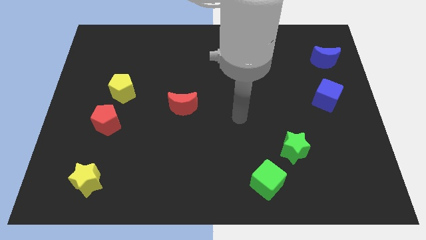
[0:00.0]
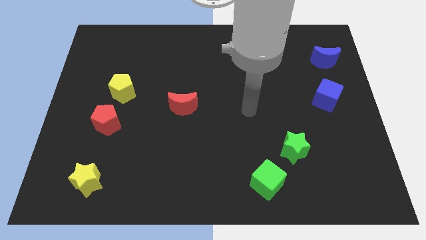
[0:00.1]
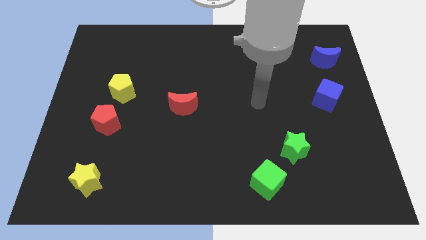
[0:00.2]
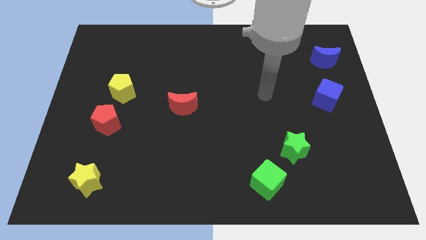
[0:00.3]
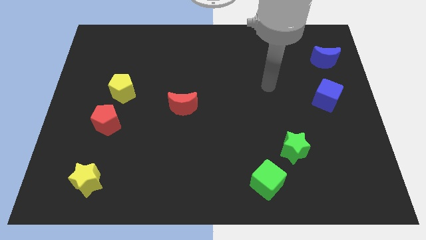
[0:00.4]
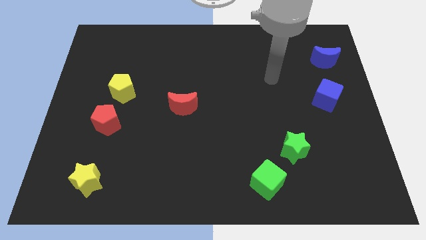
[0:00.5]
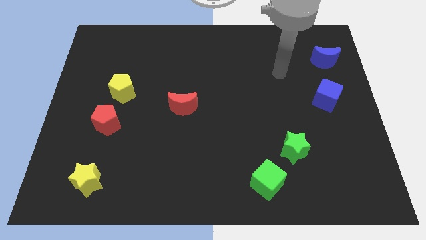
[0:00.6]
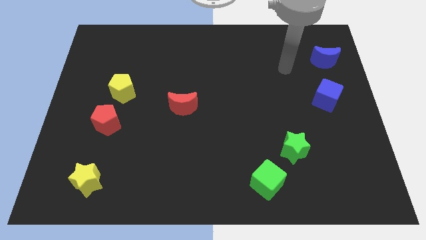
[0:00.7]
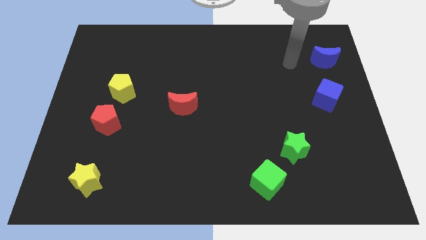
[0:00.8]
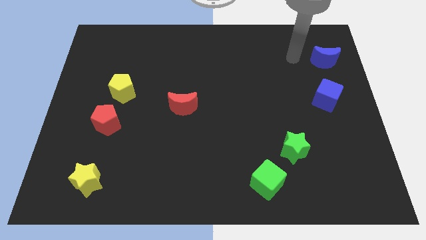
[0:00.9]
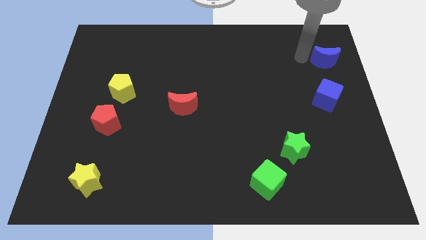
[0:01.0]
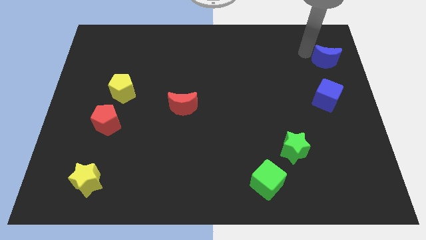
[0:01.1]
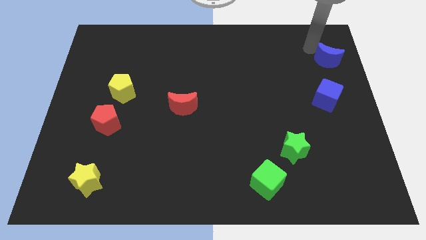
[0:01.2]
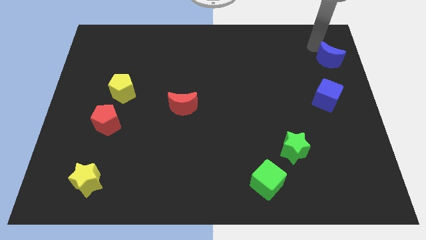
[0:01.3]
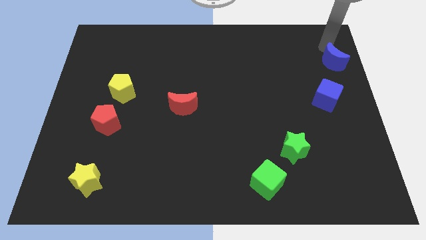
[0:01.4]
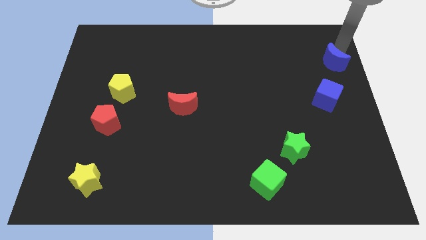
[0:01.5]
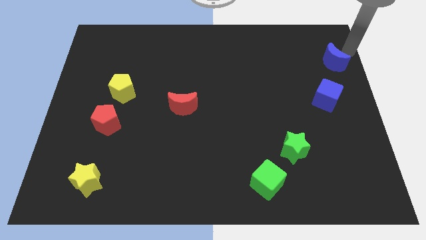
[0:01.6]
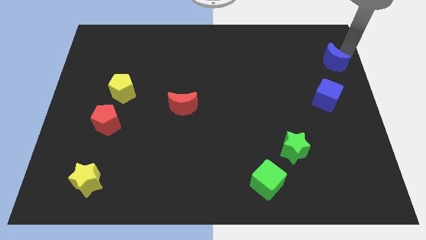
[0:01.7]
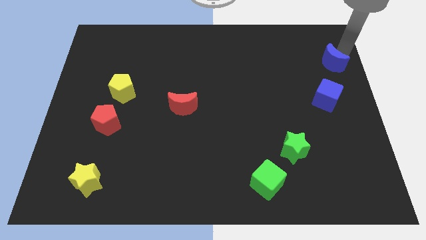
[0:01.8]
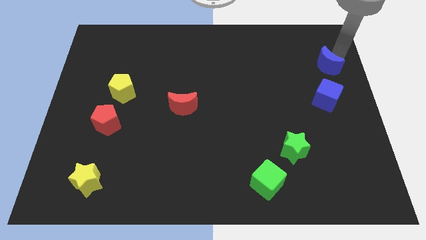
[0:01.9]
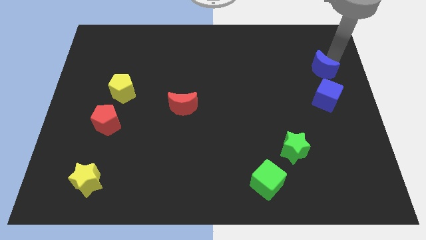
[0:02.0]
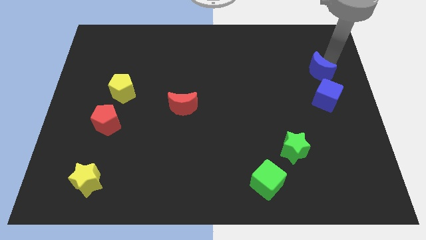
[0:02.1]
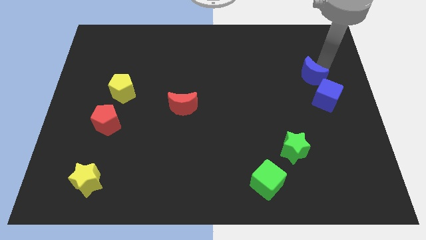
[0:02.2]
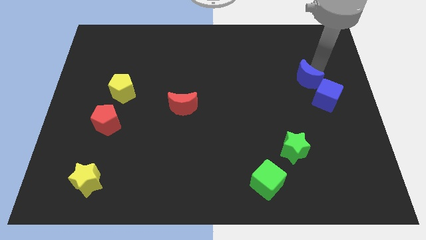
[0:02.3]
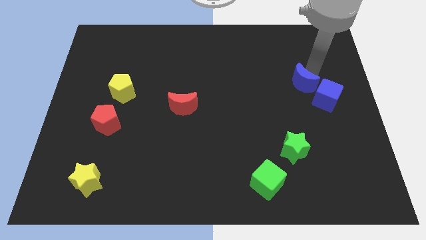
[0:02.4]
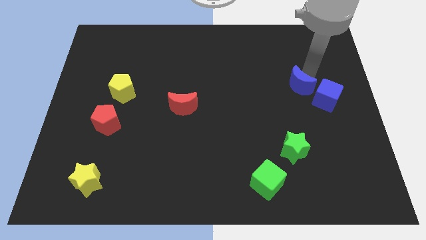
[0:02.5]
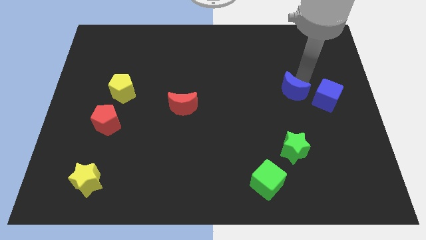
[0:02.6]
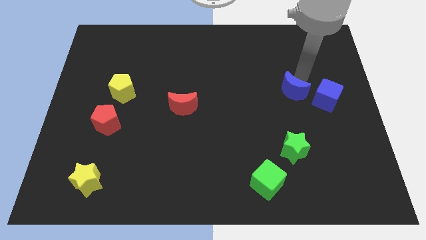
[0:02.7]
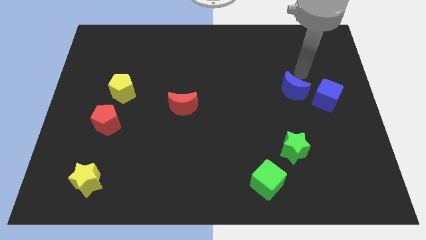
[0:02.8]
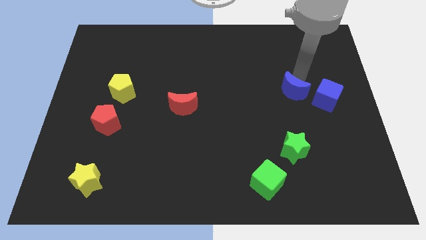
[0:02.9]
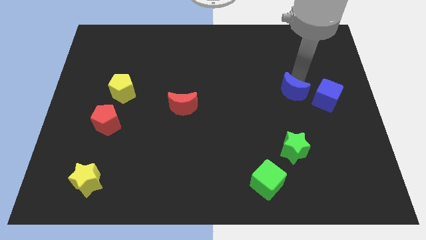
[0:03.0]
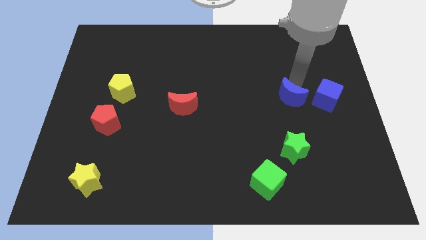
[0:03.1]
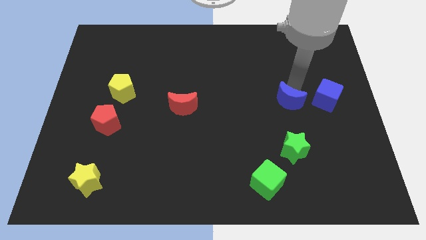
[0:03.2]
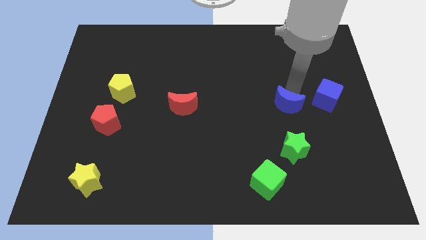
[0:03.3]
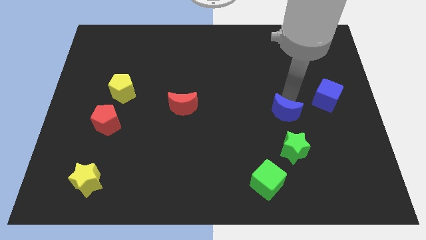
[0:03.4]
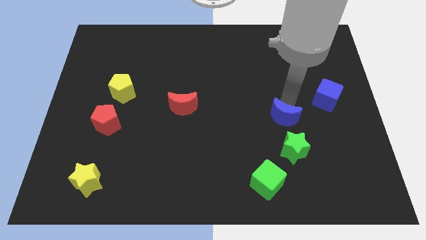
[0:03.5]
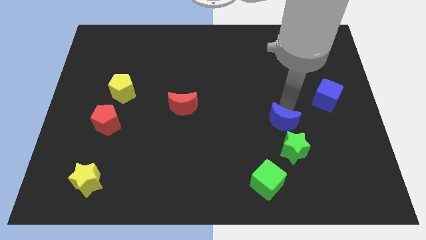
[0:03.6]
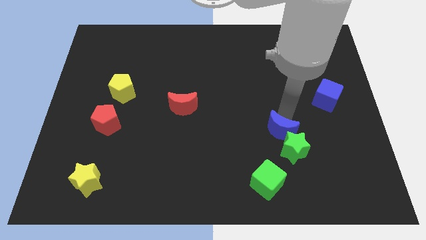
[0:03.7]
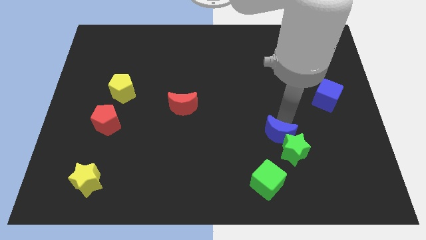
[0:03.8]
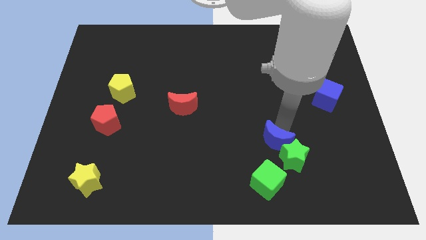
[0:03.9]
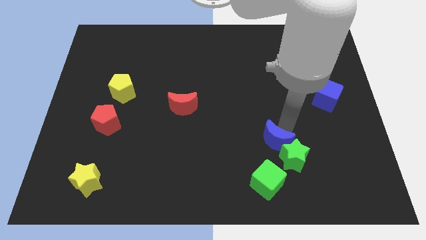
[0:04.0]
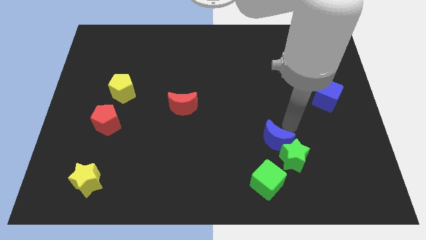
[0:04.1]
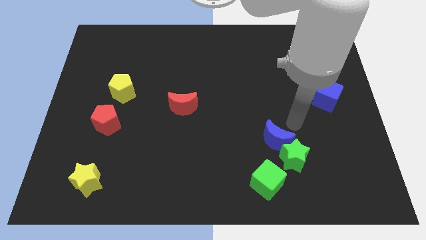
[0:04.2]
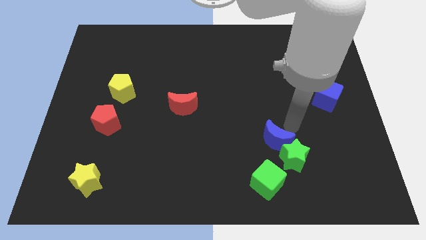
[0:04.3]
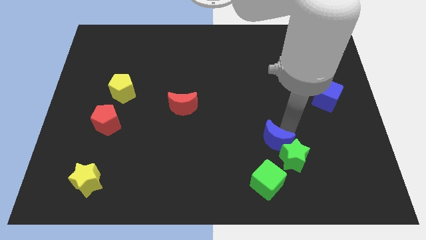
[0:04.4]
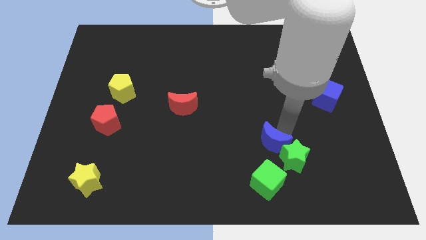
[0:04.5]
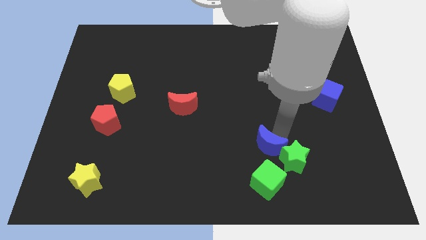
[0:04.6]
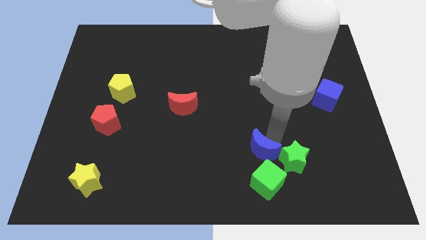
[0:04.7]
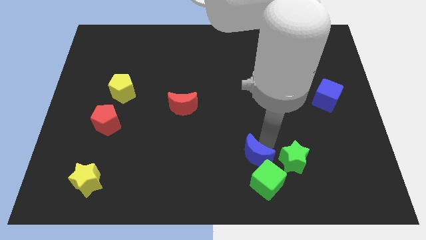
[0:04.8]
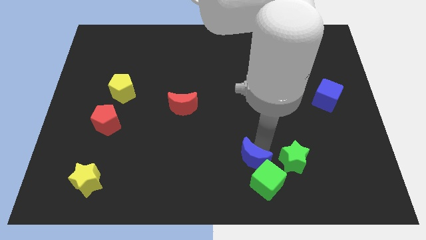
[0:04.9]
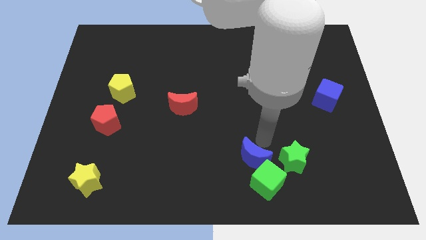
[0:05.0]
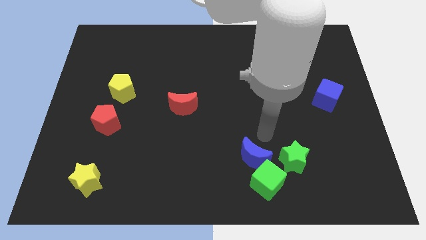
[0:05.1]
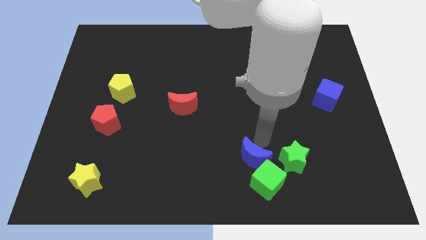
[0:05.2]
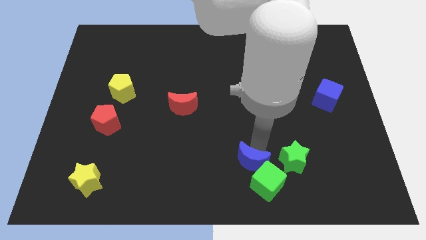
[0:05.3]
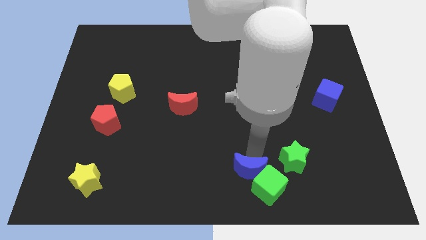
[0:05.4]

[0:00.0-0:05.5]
put the blue moon to the bottom

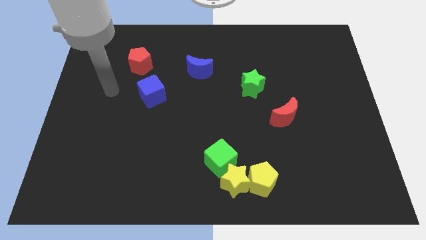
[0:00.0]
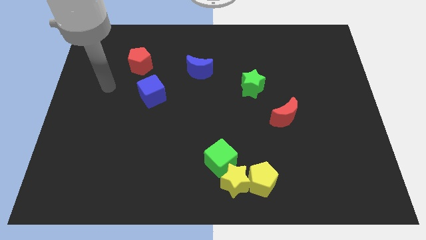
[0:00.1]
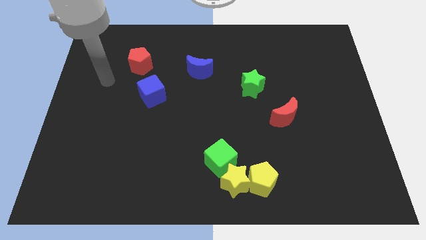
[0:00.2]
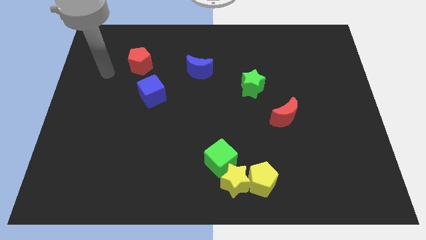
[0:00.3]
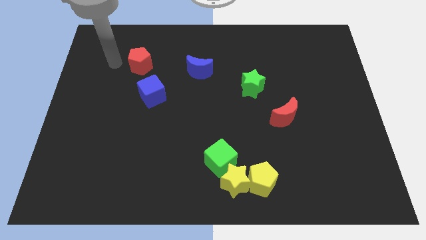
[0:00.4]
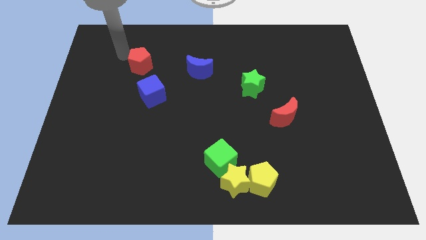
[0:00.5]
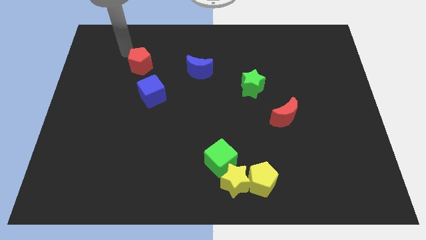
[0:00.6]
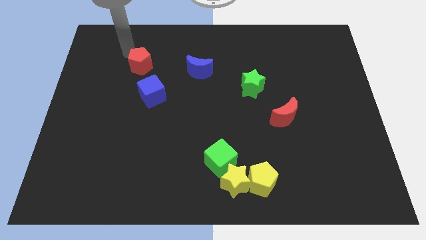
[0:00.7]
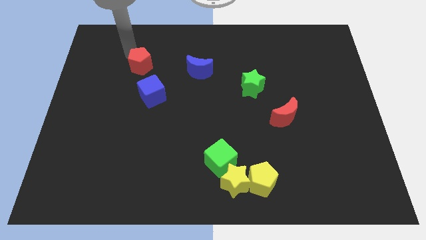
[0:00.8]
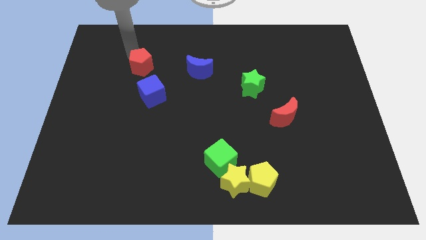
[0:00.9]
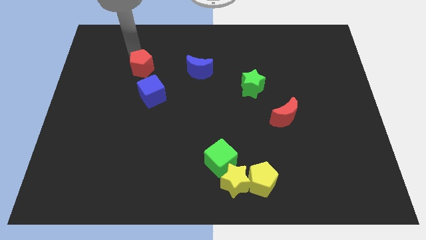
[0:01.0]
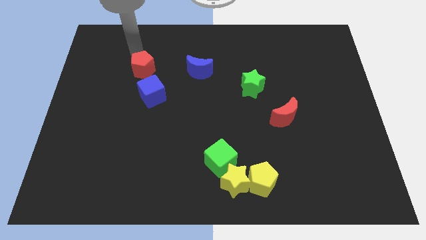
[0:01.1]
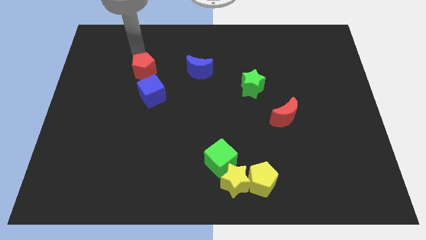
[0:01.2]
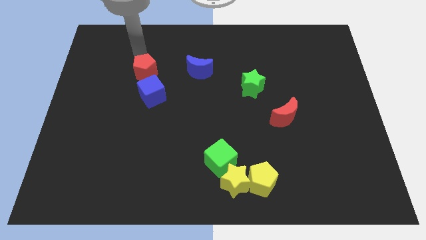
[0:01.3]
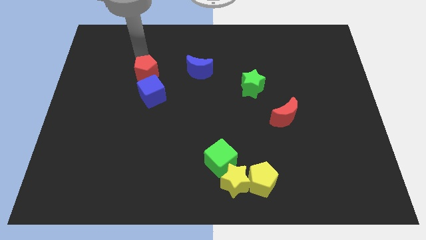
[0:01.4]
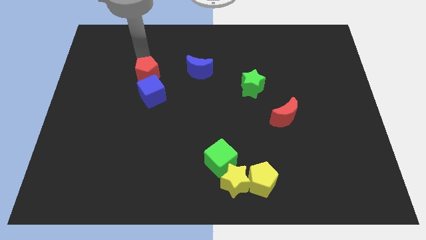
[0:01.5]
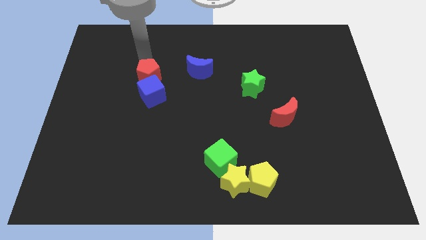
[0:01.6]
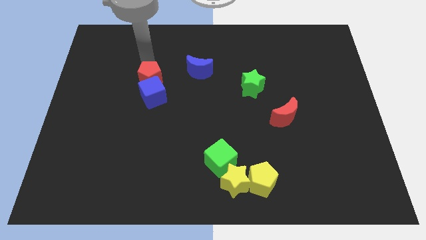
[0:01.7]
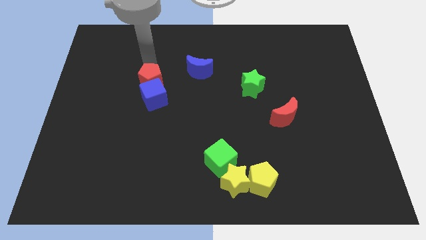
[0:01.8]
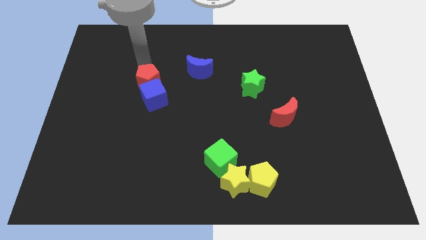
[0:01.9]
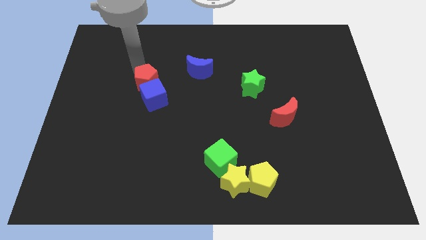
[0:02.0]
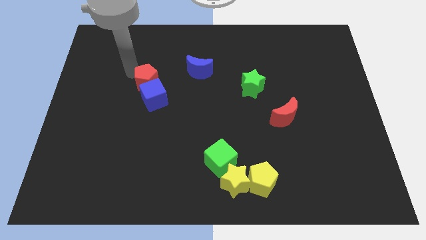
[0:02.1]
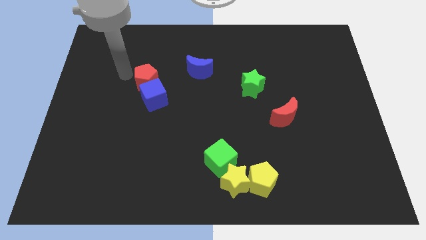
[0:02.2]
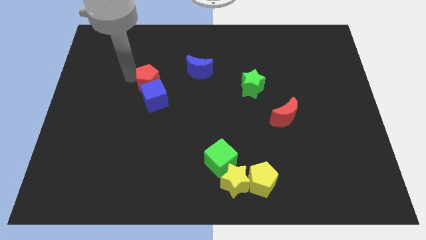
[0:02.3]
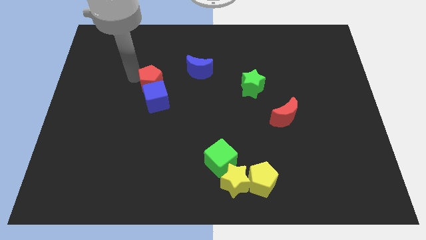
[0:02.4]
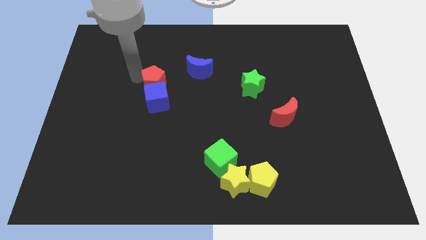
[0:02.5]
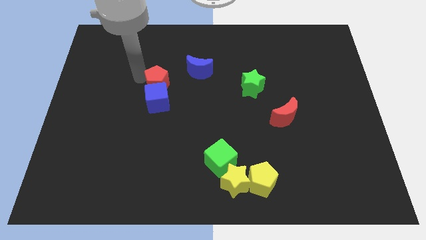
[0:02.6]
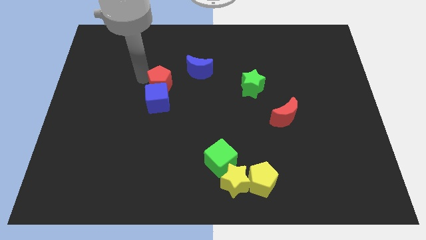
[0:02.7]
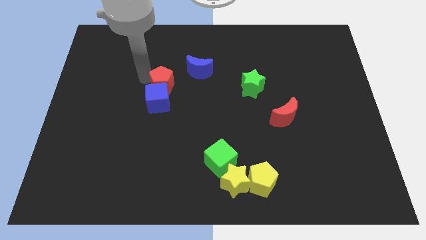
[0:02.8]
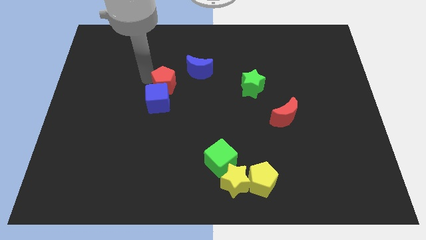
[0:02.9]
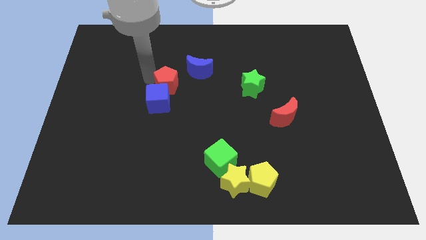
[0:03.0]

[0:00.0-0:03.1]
slide the red pentagon to the center of the board
